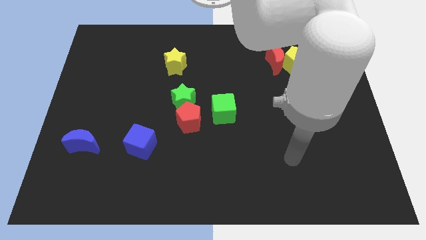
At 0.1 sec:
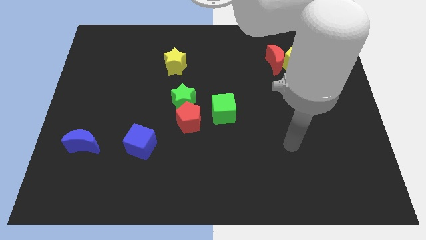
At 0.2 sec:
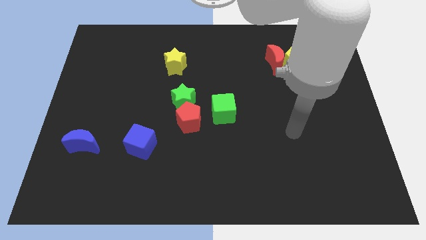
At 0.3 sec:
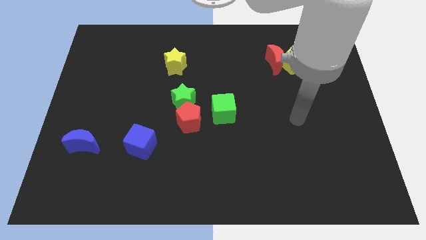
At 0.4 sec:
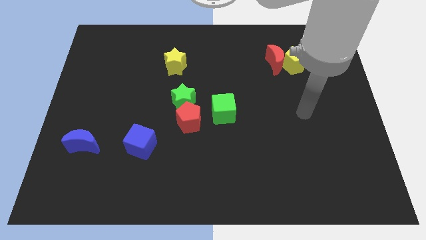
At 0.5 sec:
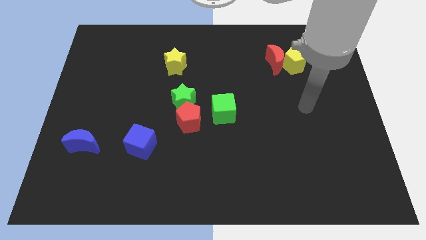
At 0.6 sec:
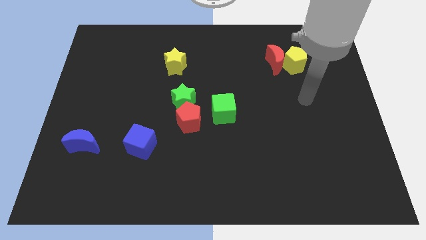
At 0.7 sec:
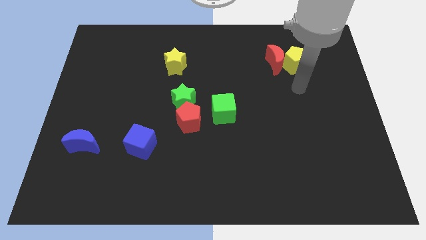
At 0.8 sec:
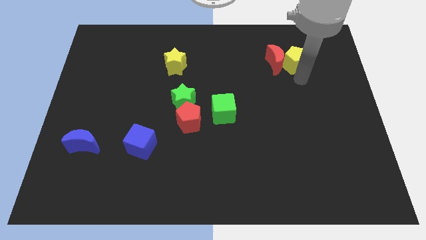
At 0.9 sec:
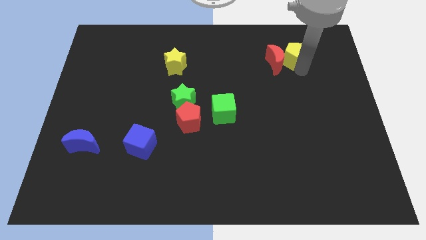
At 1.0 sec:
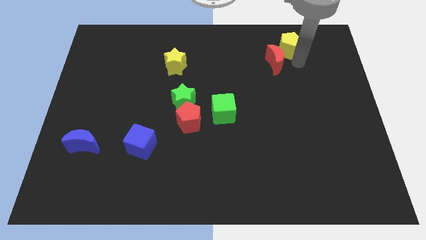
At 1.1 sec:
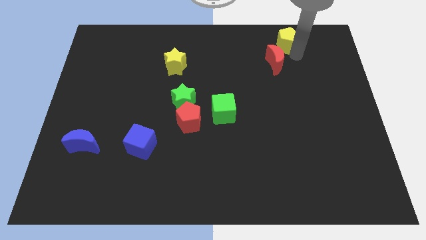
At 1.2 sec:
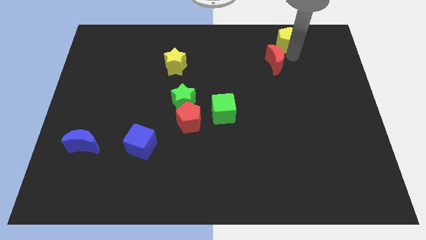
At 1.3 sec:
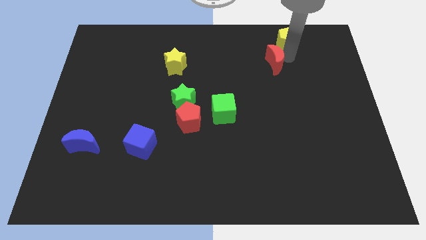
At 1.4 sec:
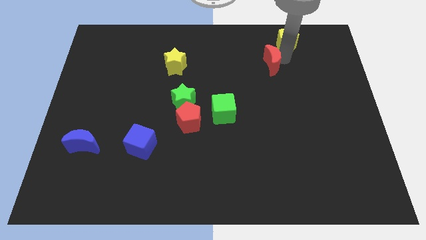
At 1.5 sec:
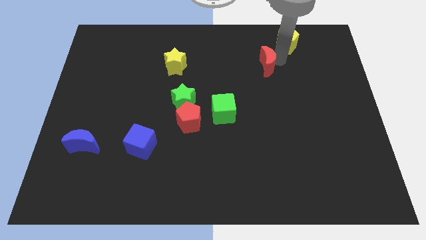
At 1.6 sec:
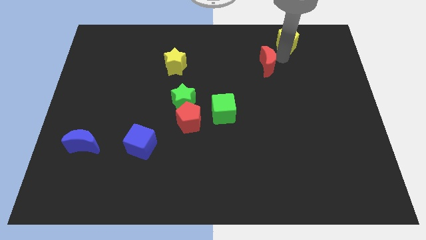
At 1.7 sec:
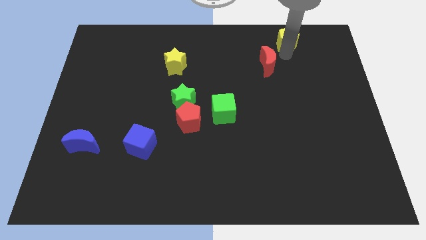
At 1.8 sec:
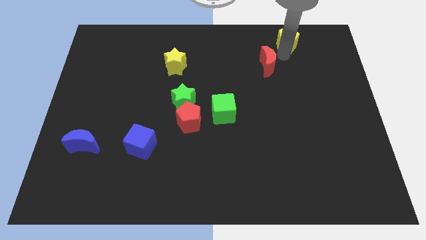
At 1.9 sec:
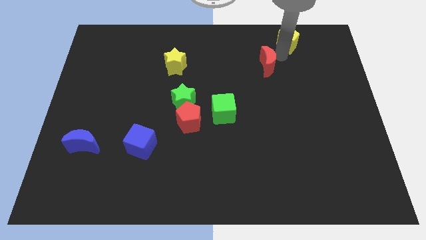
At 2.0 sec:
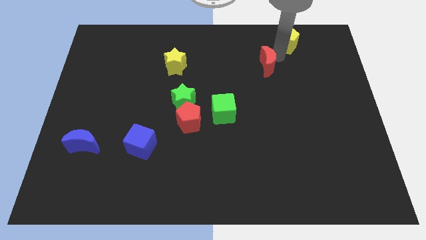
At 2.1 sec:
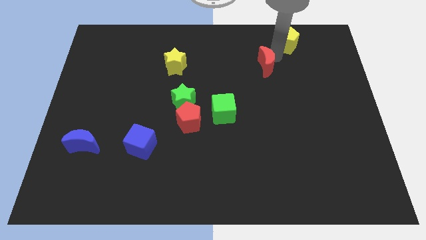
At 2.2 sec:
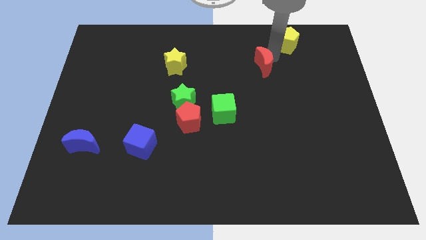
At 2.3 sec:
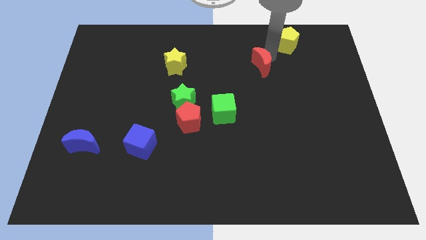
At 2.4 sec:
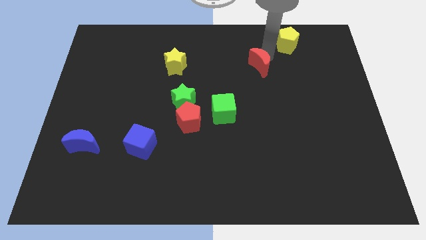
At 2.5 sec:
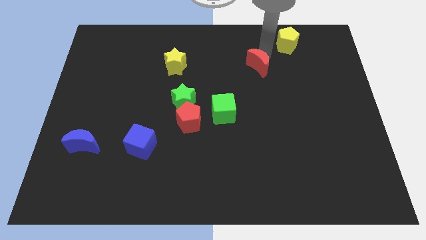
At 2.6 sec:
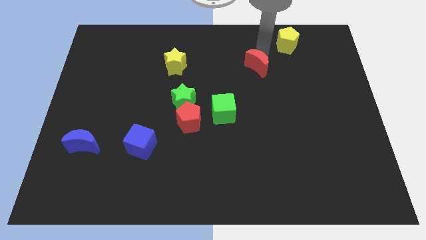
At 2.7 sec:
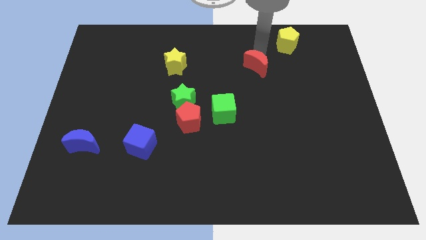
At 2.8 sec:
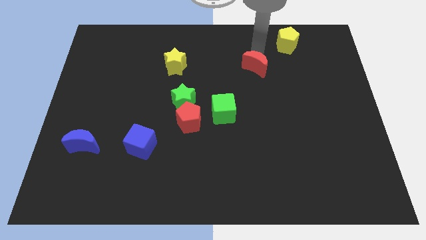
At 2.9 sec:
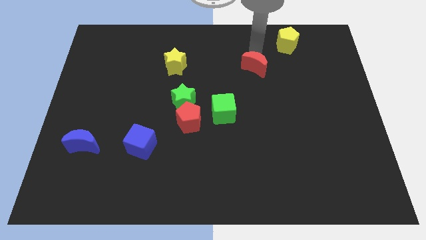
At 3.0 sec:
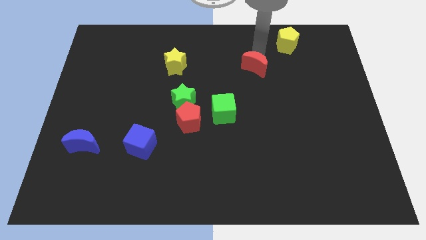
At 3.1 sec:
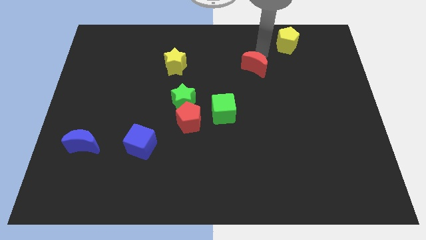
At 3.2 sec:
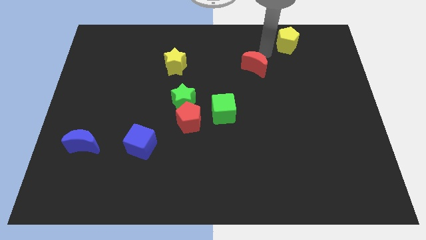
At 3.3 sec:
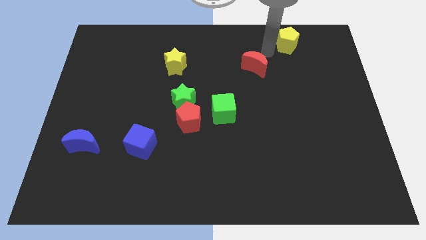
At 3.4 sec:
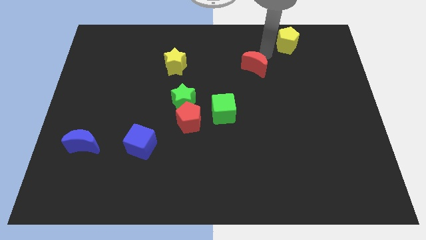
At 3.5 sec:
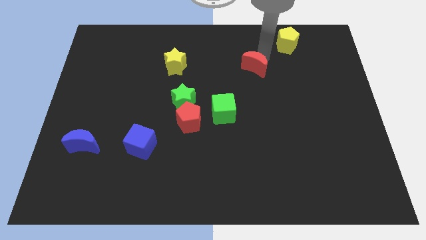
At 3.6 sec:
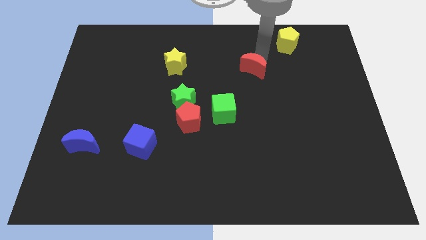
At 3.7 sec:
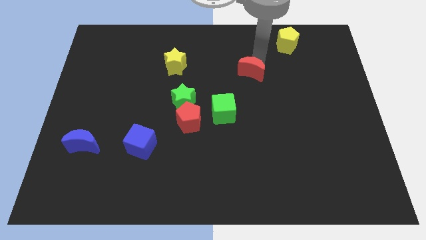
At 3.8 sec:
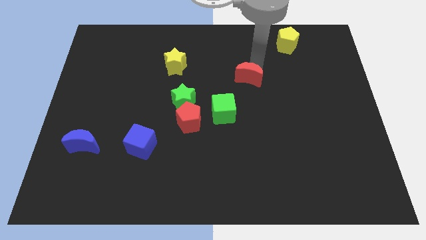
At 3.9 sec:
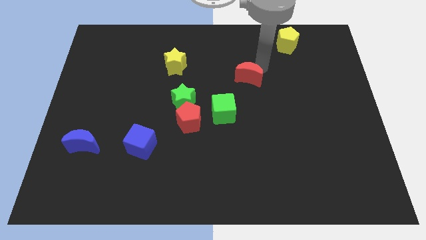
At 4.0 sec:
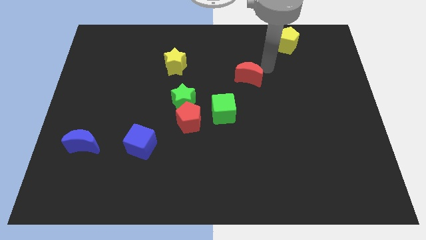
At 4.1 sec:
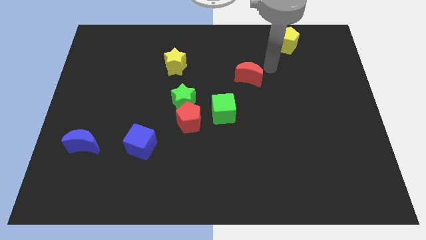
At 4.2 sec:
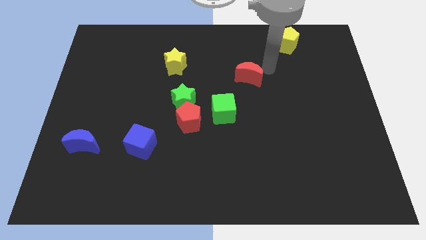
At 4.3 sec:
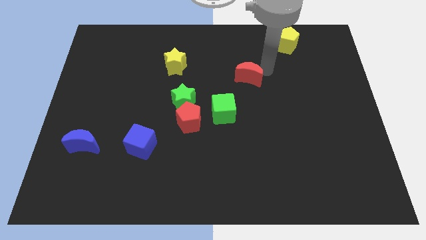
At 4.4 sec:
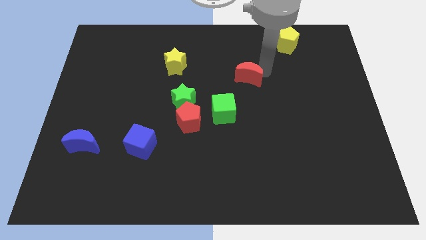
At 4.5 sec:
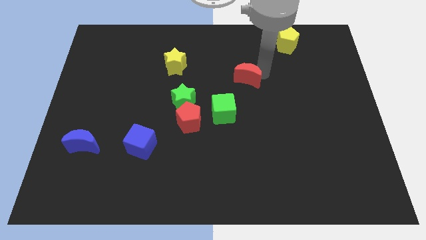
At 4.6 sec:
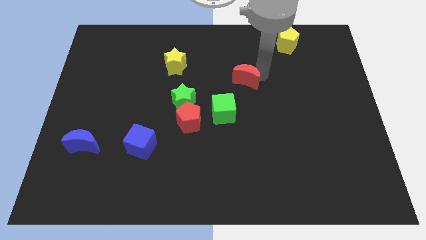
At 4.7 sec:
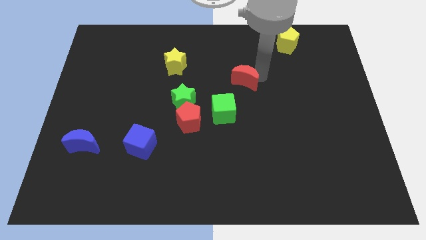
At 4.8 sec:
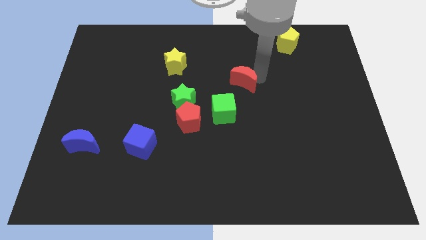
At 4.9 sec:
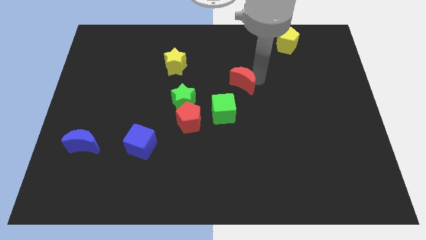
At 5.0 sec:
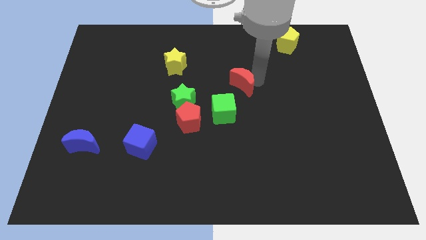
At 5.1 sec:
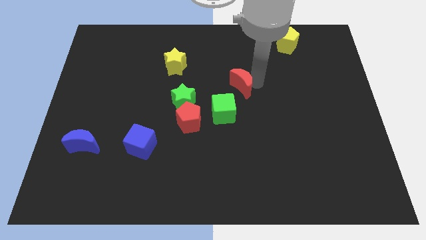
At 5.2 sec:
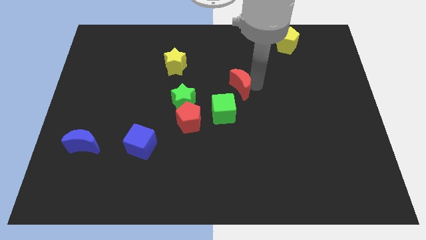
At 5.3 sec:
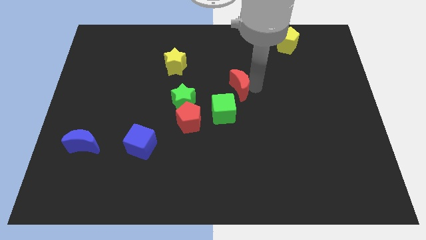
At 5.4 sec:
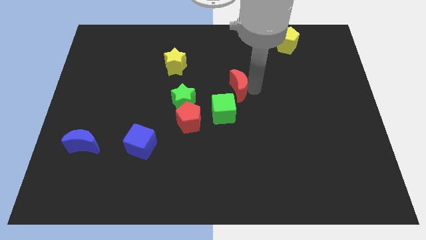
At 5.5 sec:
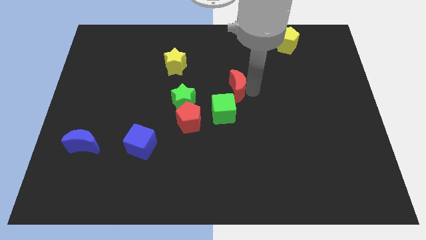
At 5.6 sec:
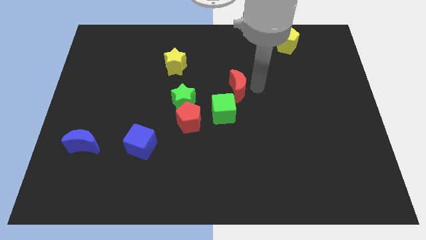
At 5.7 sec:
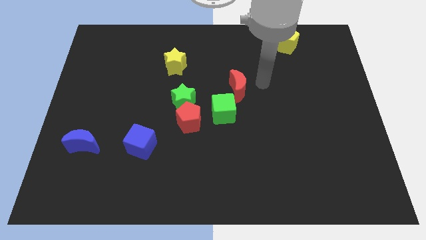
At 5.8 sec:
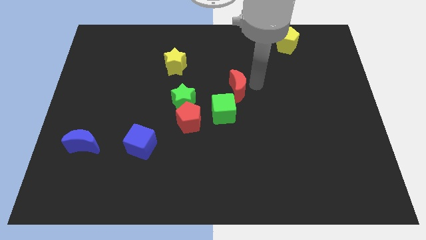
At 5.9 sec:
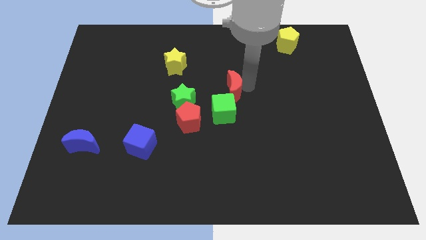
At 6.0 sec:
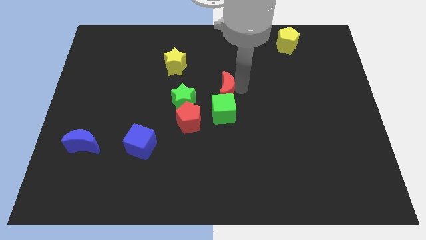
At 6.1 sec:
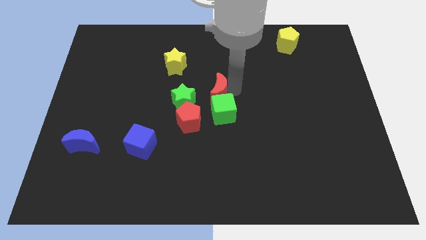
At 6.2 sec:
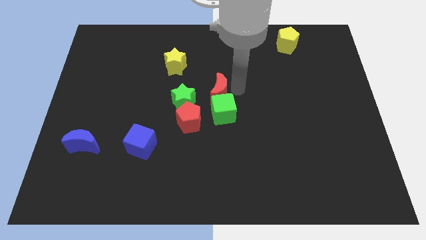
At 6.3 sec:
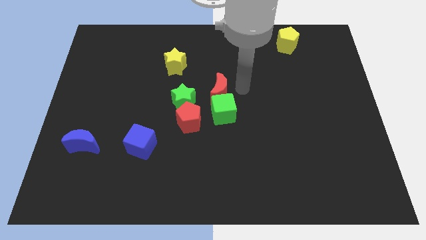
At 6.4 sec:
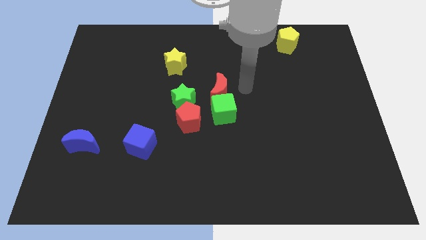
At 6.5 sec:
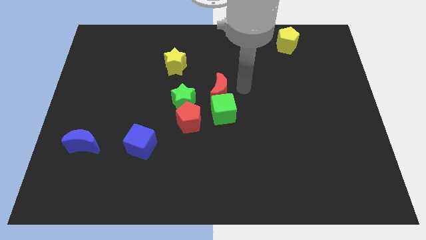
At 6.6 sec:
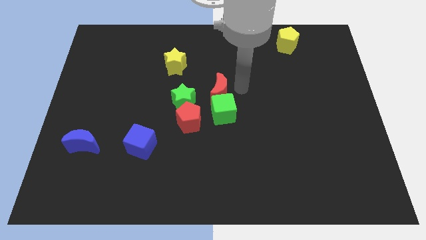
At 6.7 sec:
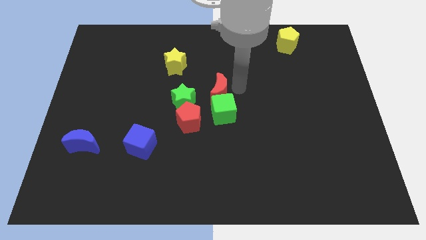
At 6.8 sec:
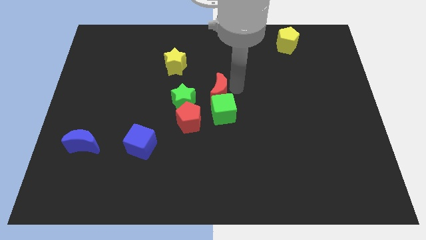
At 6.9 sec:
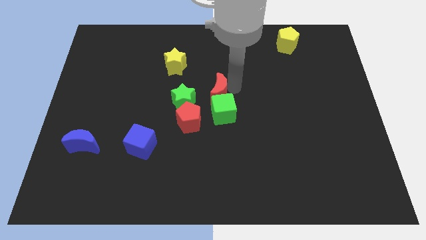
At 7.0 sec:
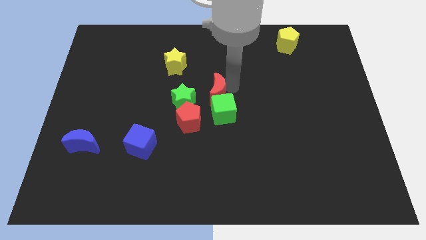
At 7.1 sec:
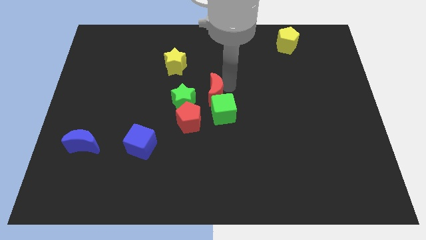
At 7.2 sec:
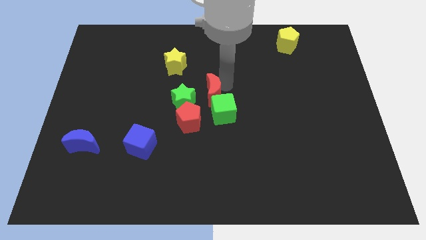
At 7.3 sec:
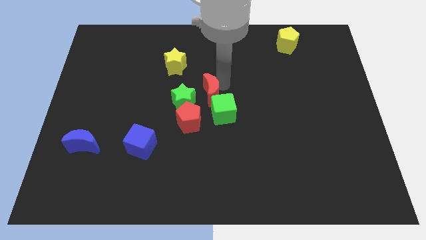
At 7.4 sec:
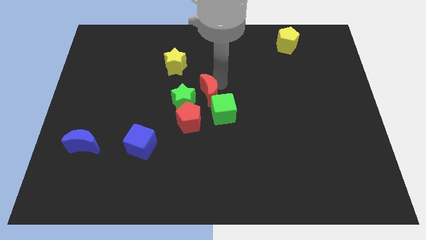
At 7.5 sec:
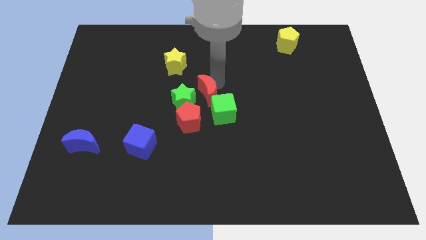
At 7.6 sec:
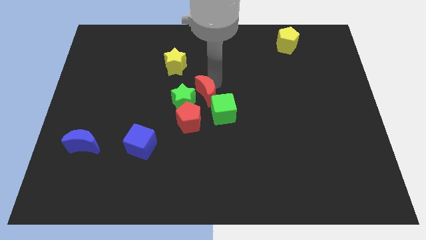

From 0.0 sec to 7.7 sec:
slide the red moon next to the green star
